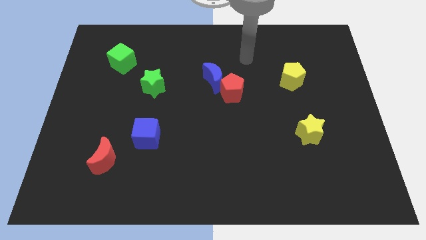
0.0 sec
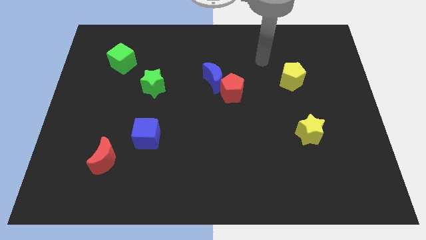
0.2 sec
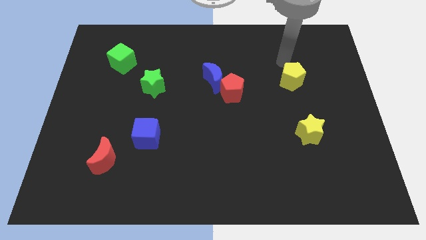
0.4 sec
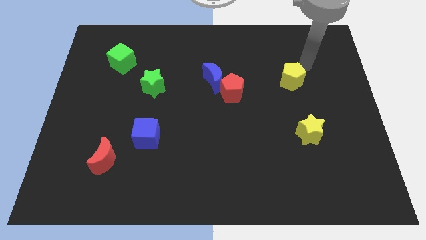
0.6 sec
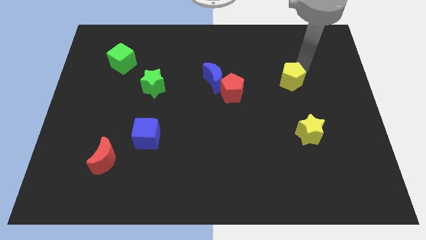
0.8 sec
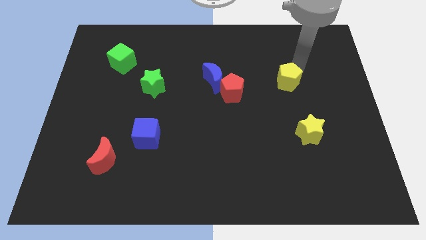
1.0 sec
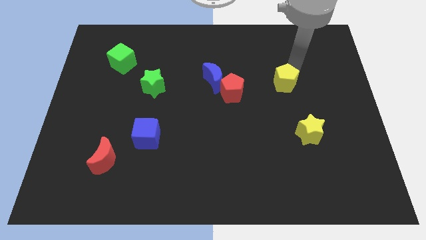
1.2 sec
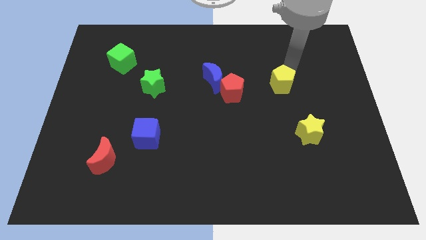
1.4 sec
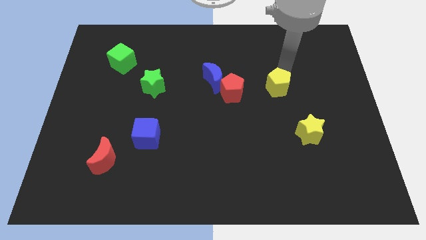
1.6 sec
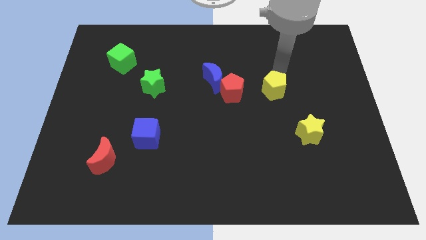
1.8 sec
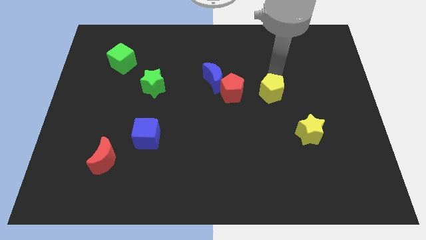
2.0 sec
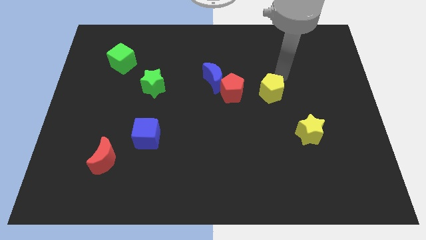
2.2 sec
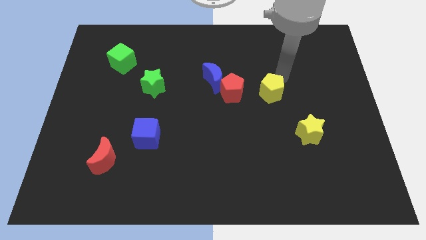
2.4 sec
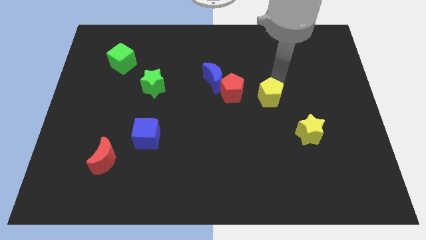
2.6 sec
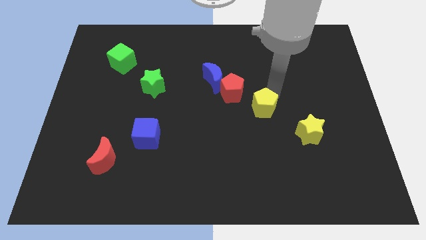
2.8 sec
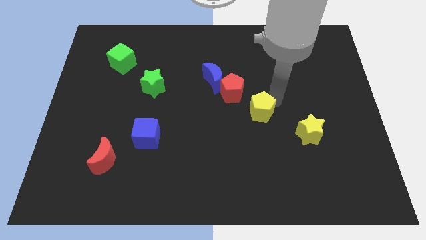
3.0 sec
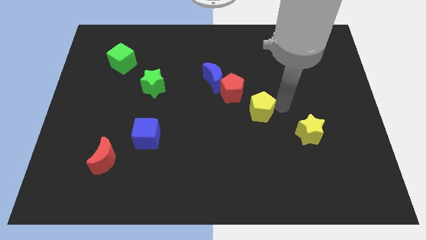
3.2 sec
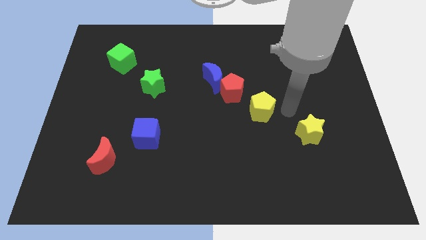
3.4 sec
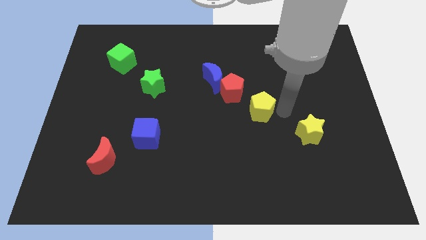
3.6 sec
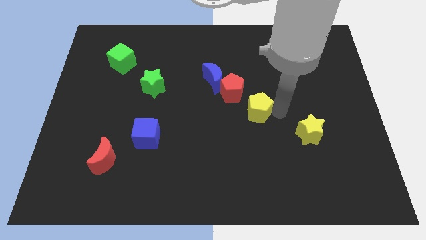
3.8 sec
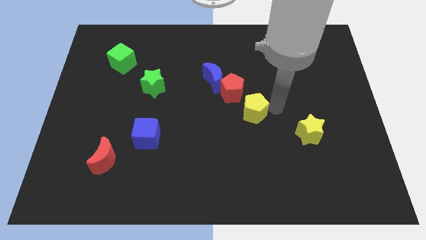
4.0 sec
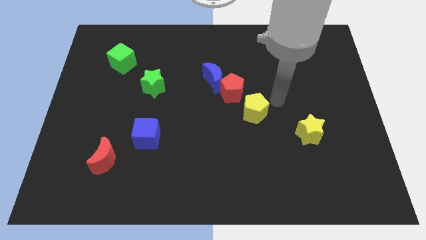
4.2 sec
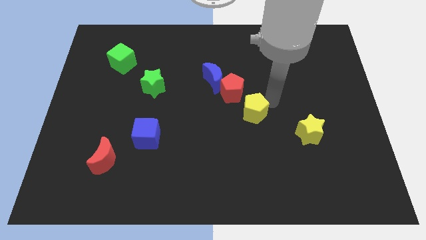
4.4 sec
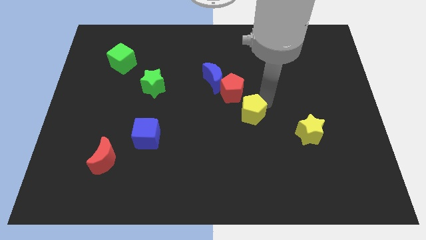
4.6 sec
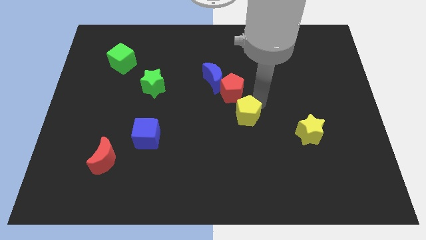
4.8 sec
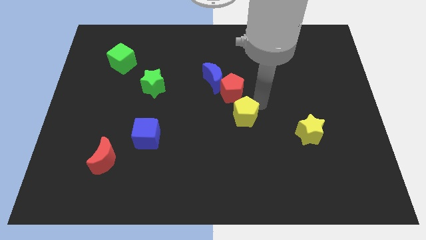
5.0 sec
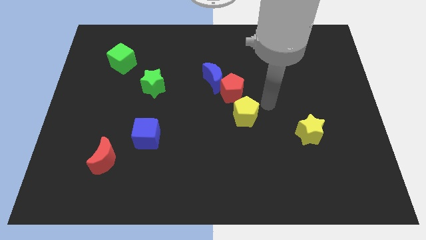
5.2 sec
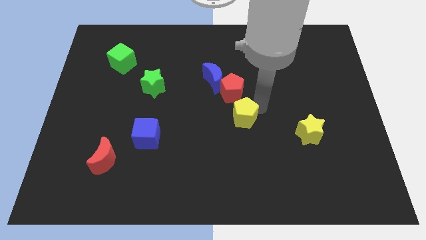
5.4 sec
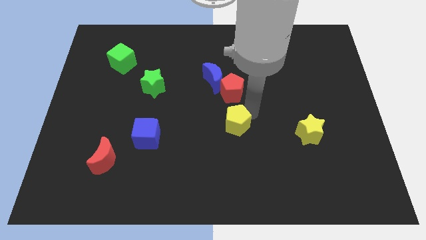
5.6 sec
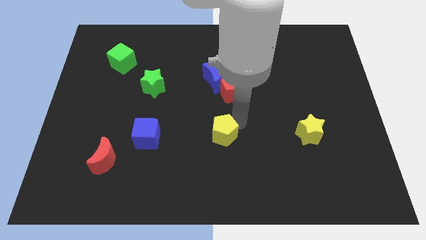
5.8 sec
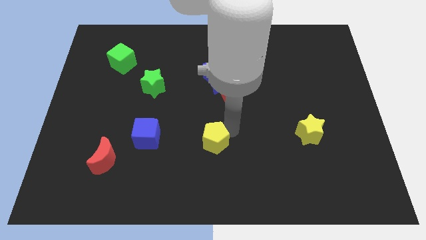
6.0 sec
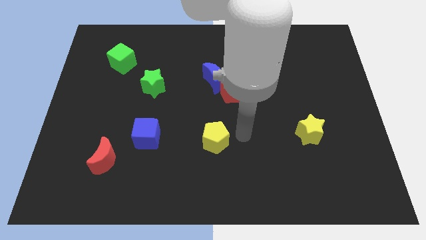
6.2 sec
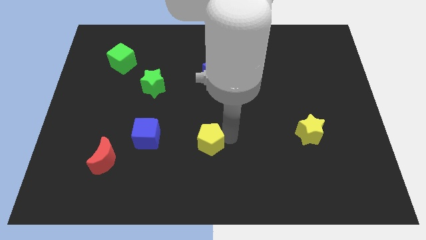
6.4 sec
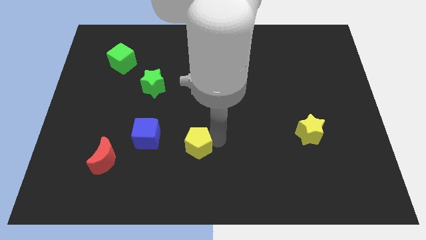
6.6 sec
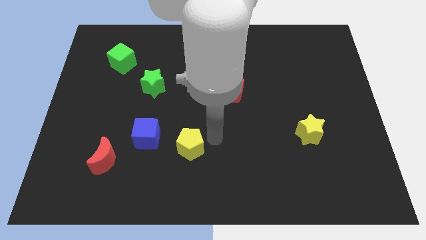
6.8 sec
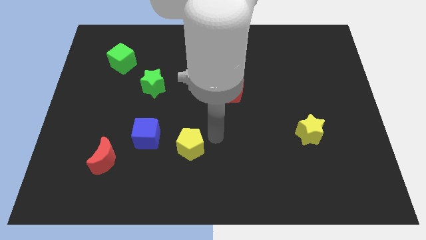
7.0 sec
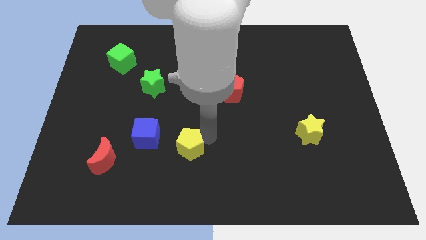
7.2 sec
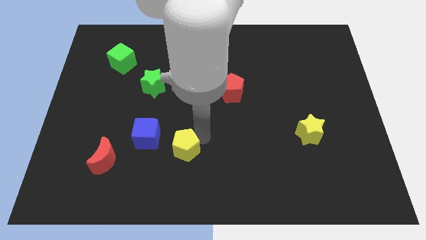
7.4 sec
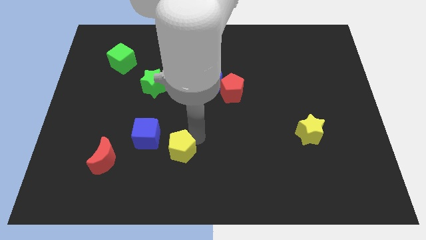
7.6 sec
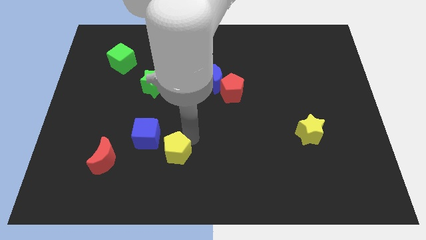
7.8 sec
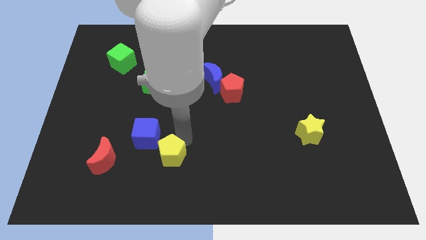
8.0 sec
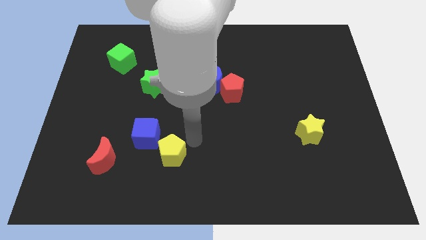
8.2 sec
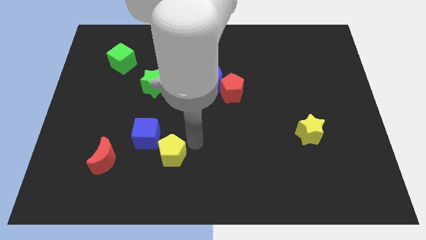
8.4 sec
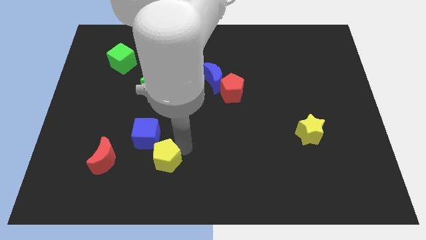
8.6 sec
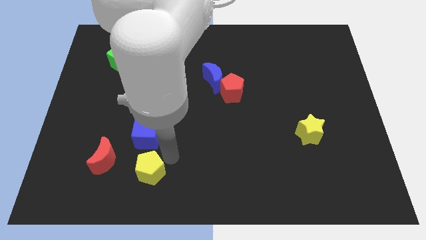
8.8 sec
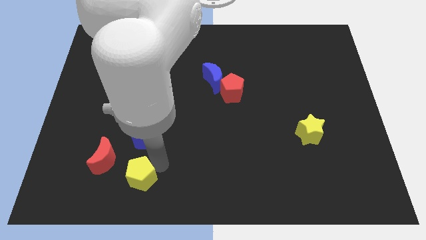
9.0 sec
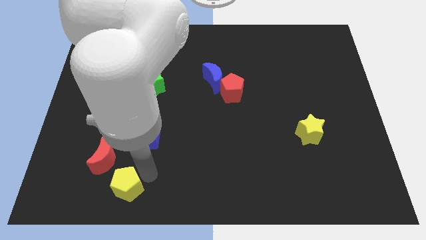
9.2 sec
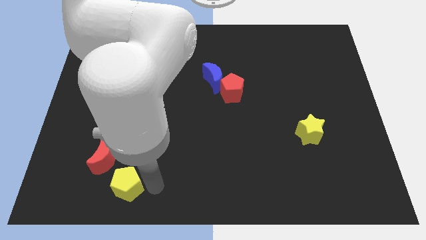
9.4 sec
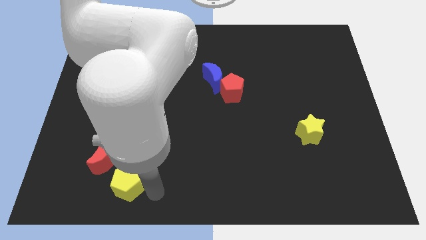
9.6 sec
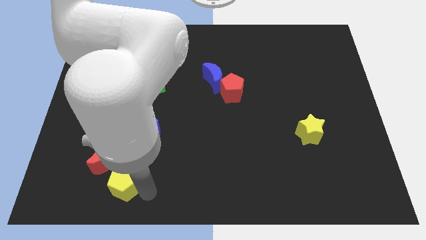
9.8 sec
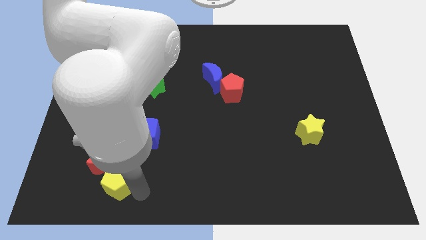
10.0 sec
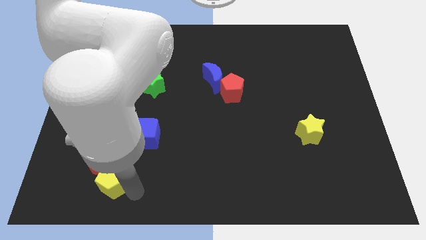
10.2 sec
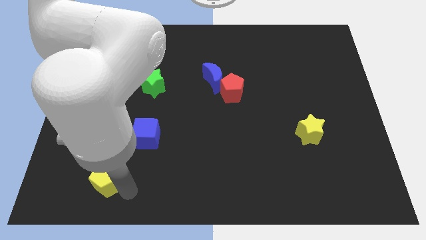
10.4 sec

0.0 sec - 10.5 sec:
push the yellow pentagon to the bottom left of the red moon
